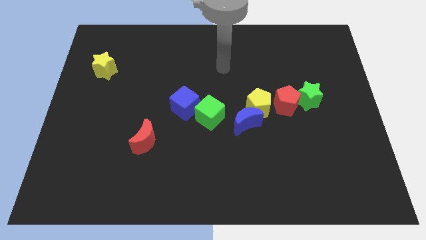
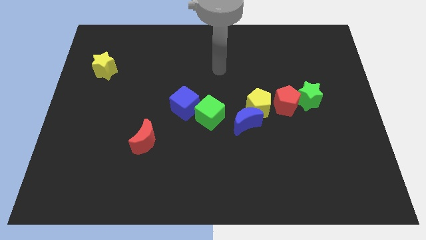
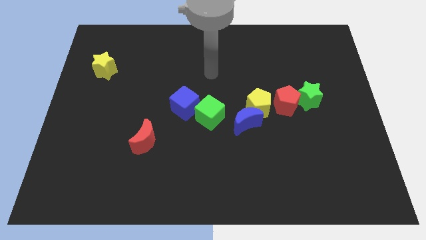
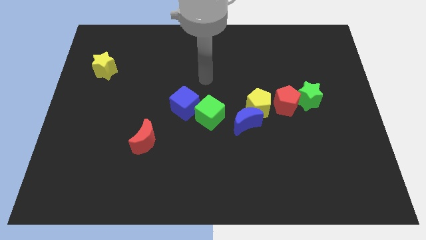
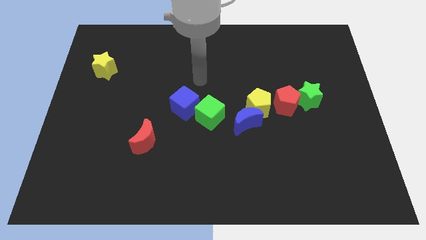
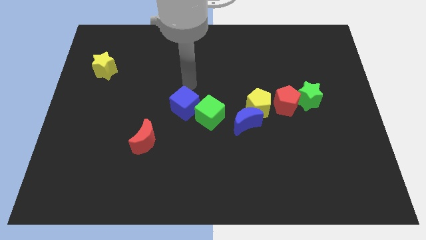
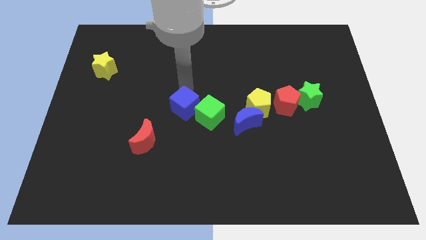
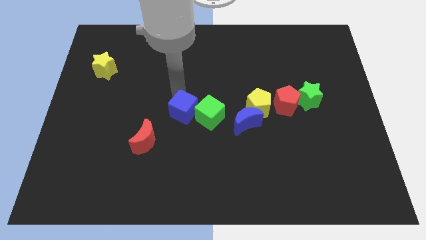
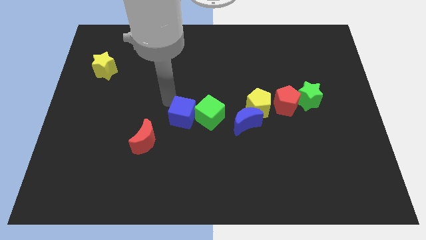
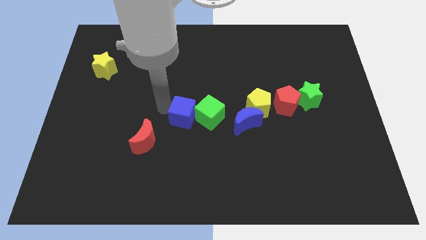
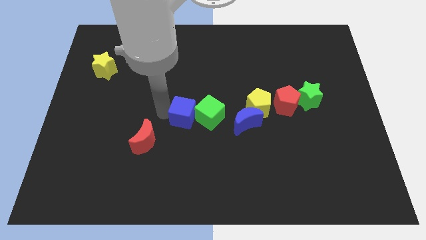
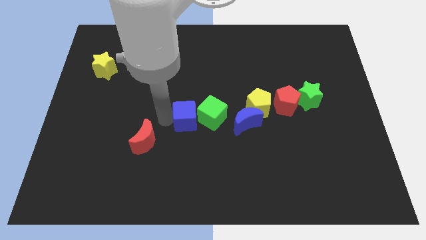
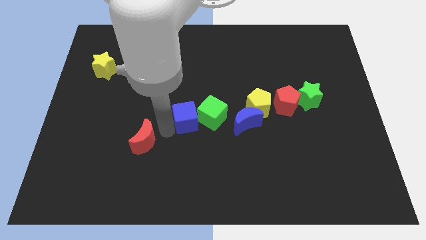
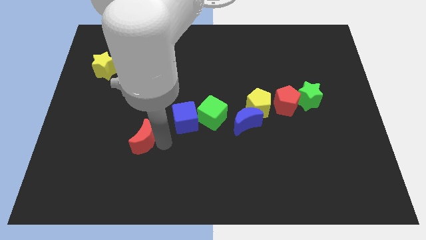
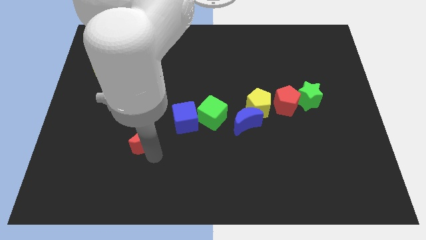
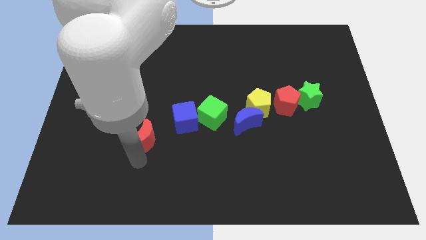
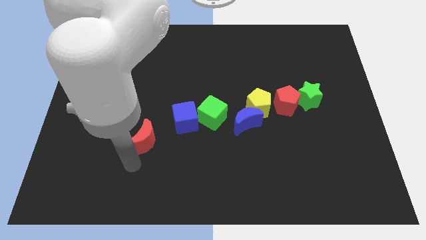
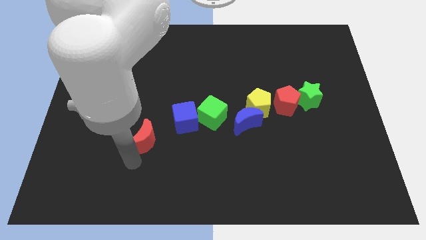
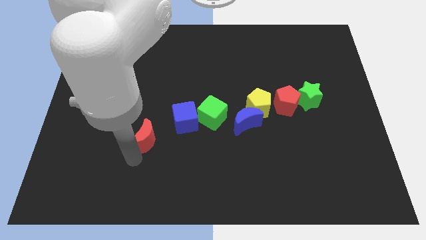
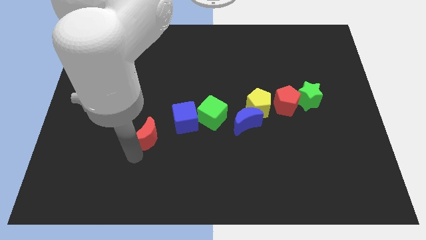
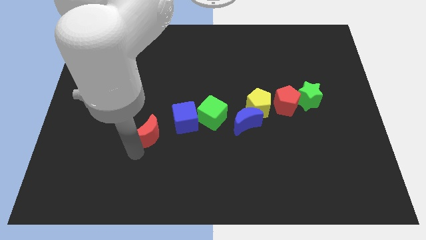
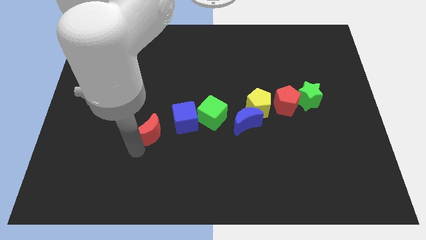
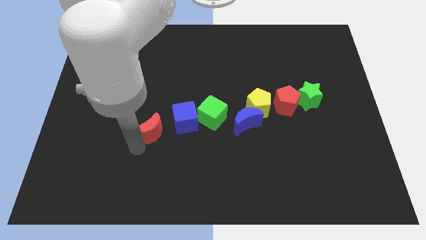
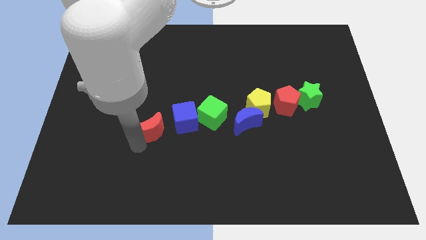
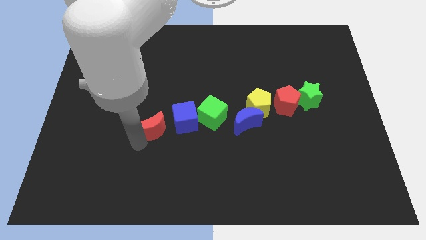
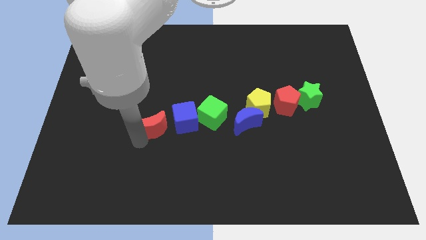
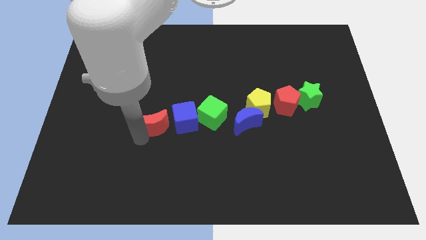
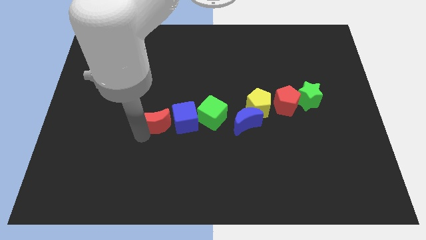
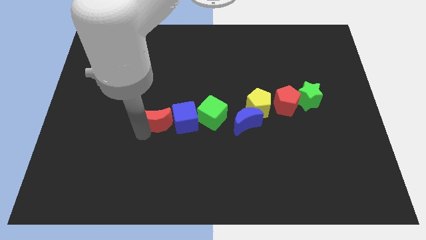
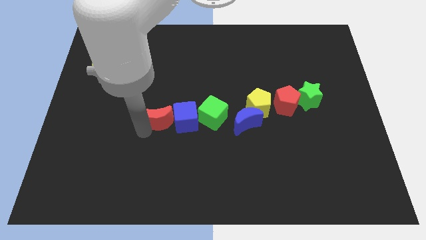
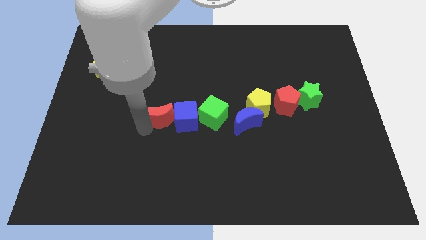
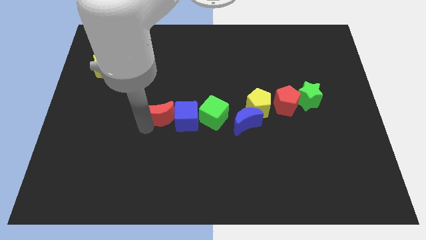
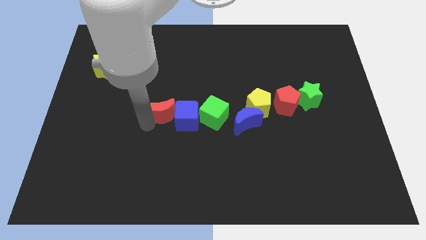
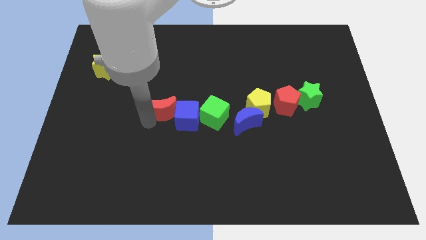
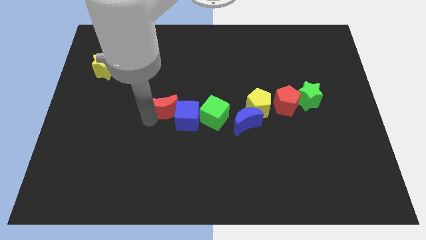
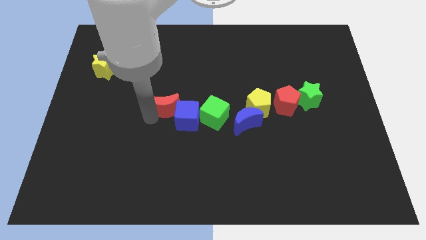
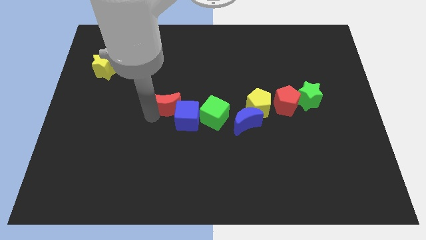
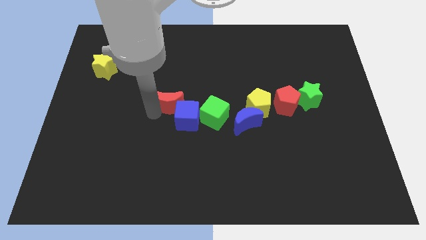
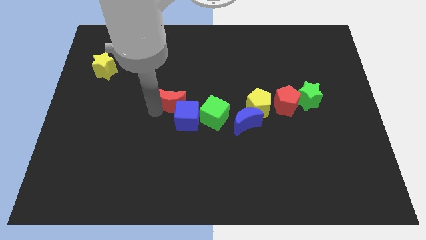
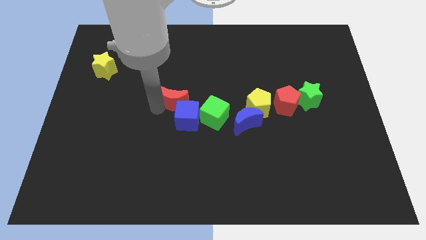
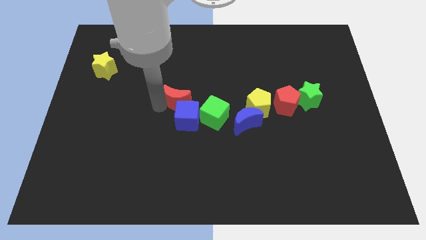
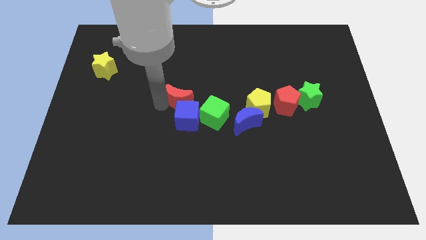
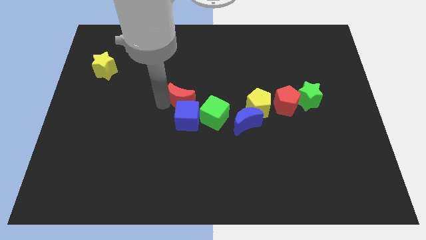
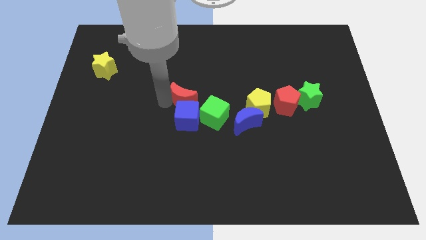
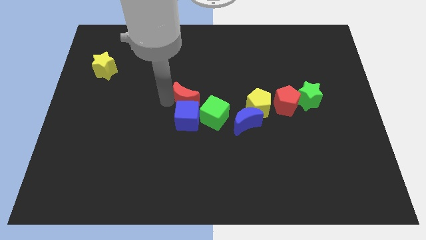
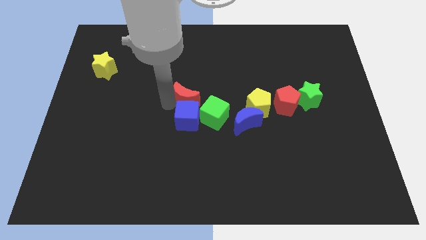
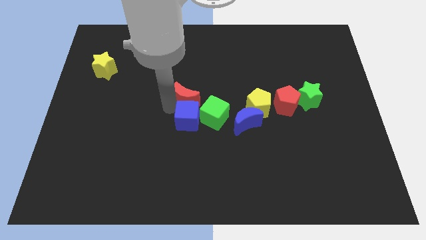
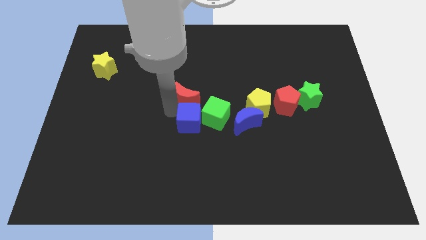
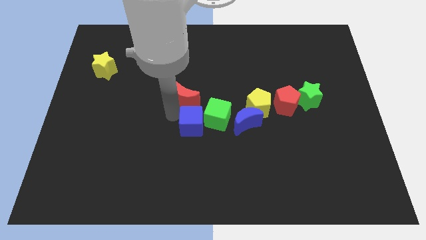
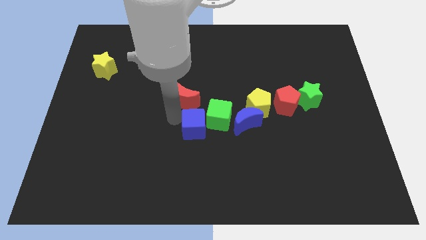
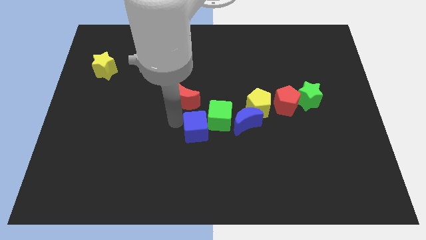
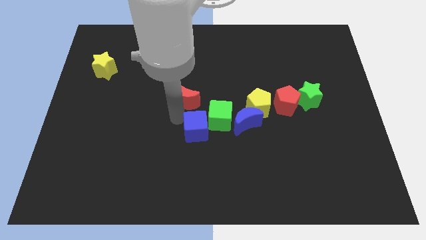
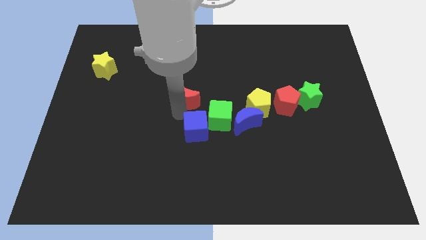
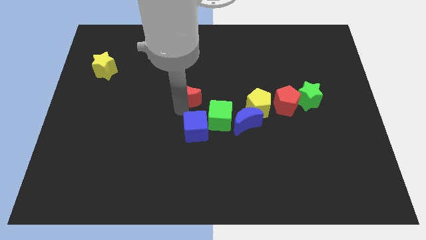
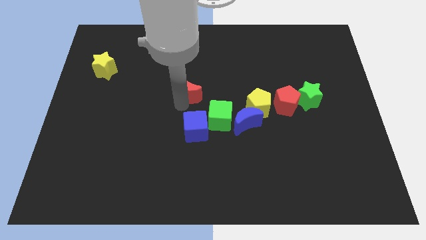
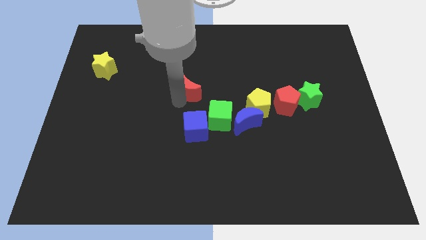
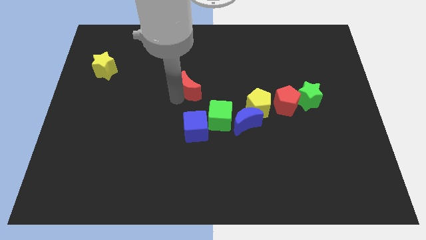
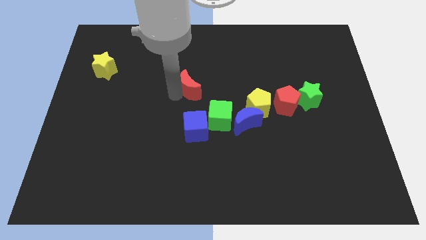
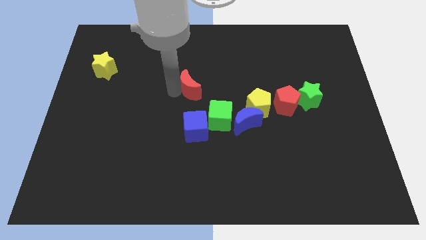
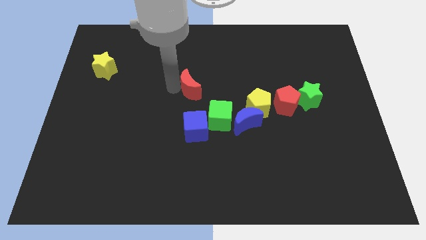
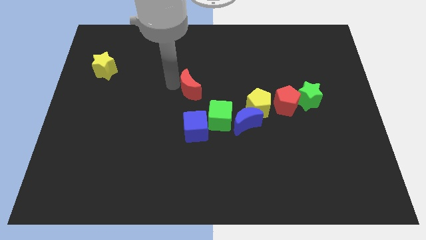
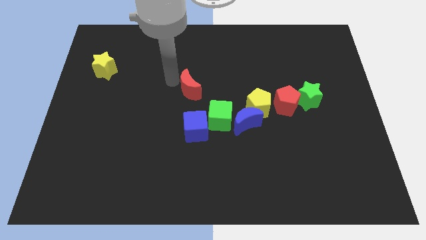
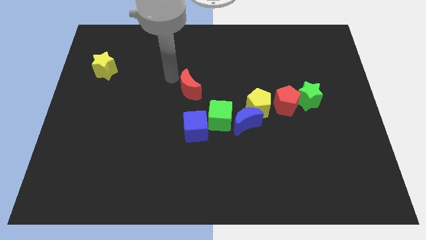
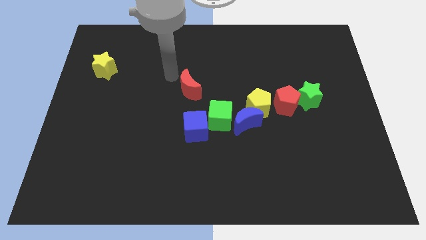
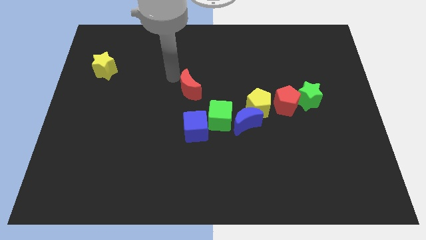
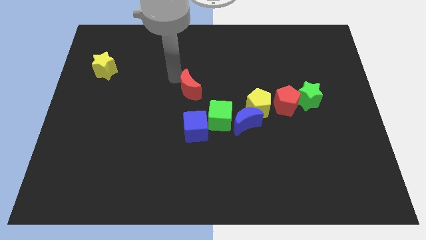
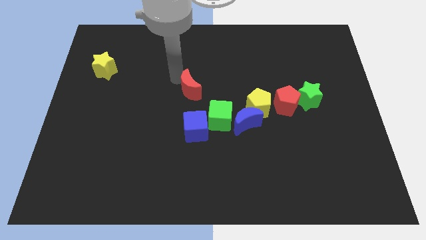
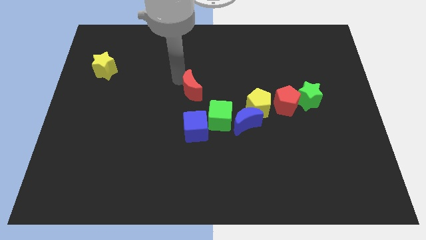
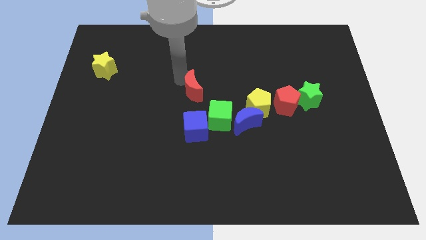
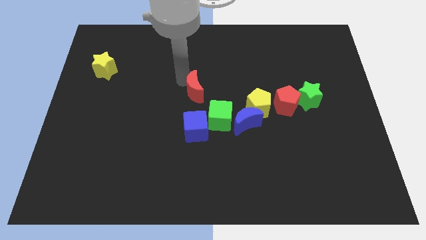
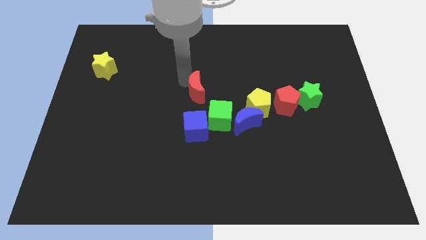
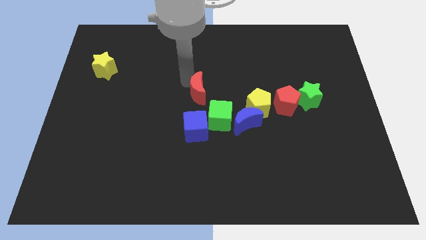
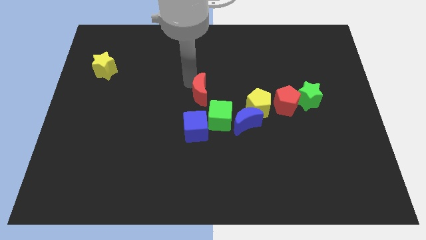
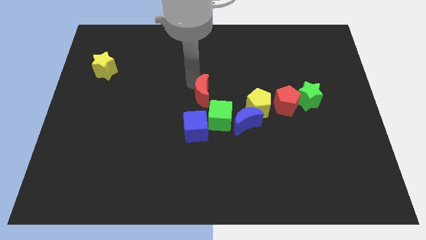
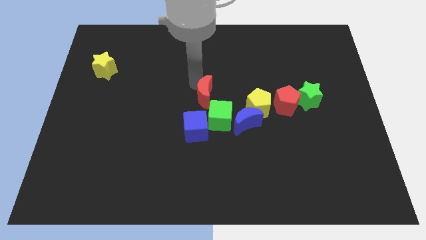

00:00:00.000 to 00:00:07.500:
slide the red moon to the top left side of the blue moon

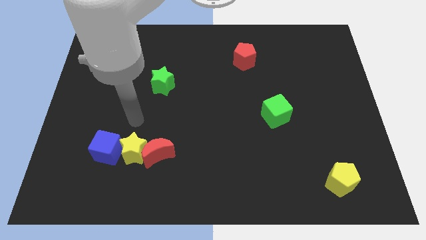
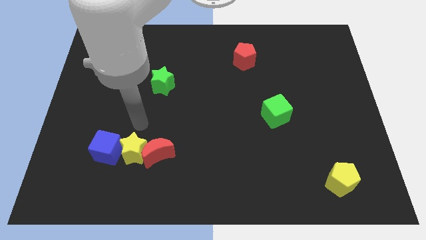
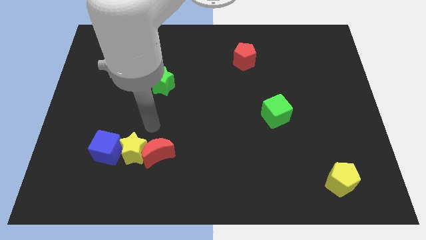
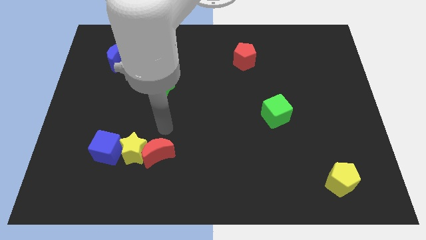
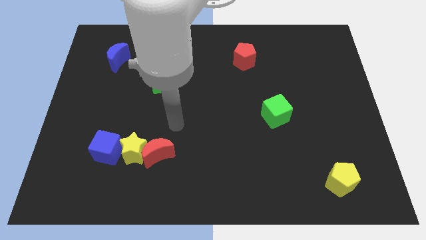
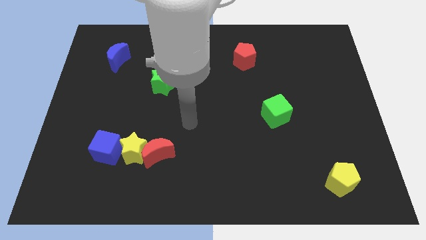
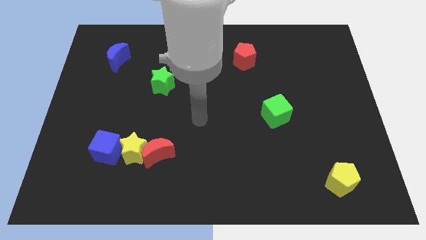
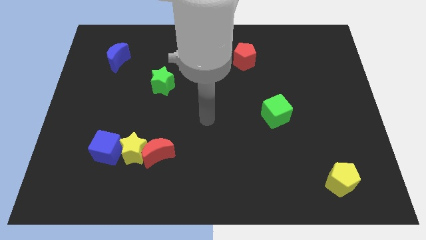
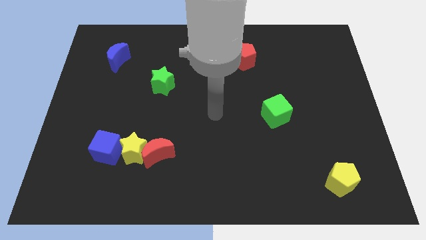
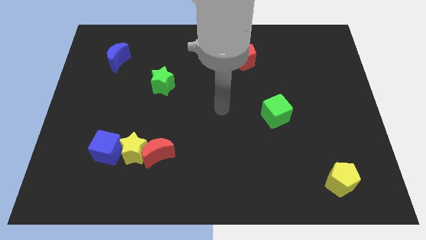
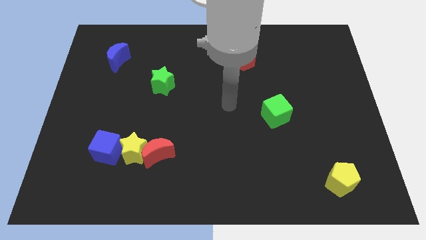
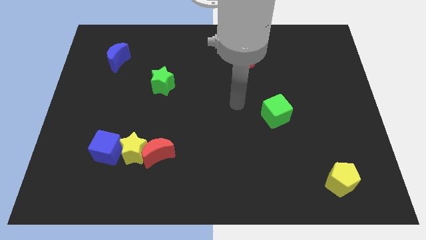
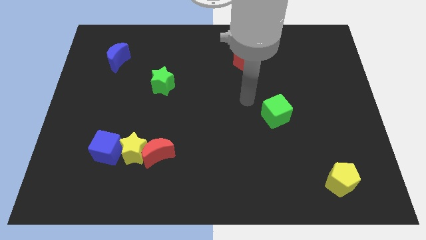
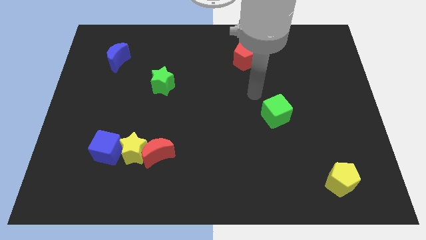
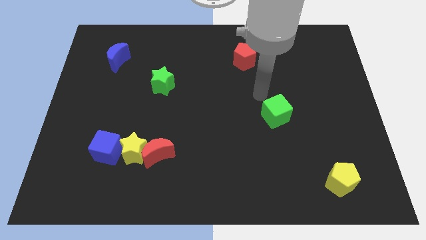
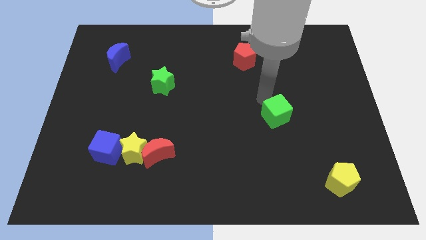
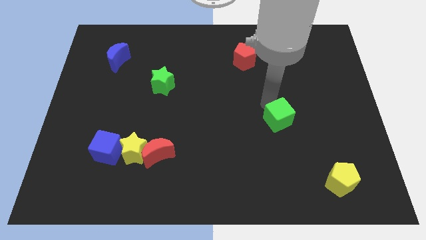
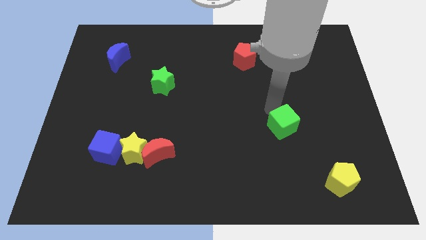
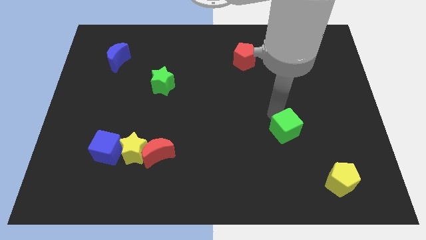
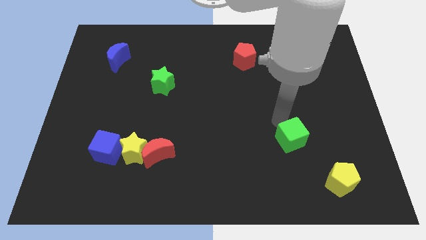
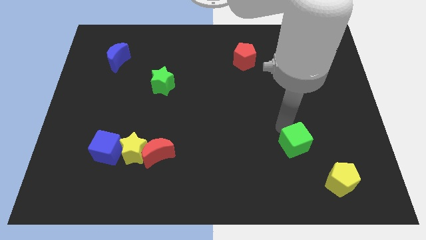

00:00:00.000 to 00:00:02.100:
move the green cube to the top left side of the yellow pentagon
